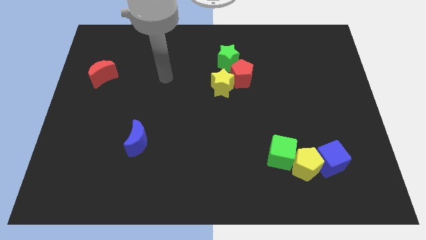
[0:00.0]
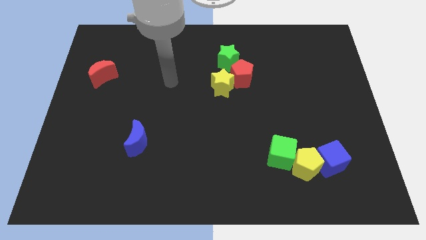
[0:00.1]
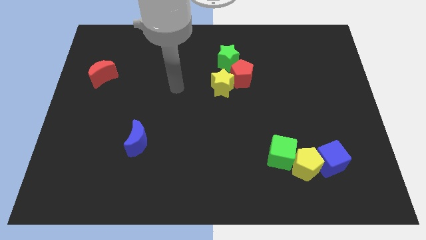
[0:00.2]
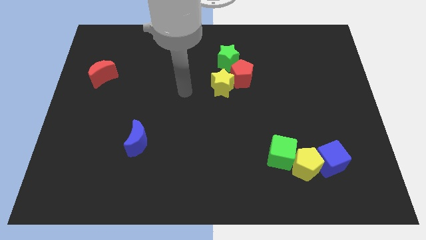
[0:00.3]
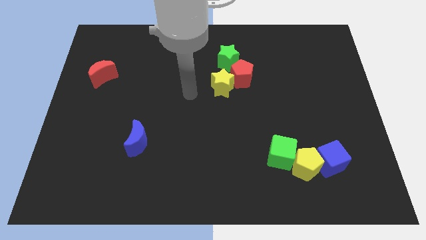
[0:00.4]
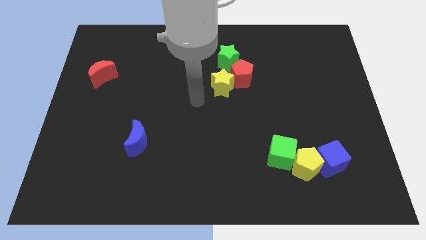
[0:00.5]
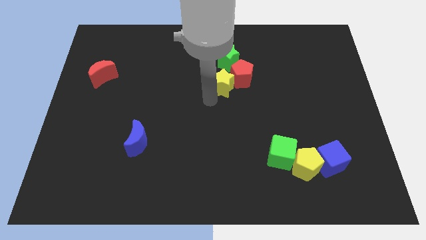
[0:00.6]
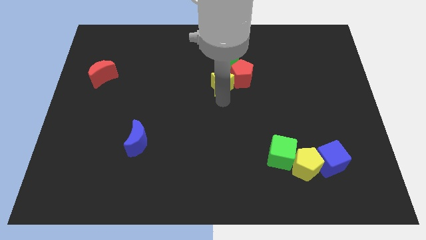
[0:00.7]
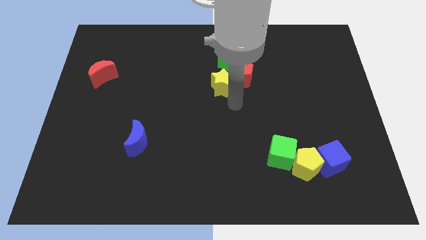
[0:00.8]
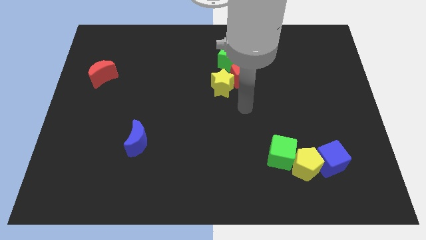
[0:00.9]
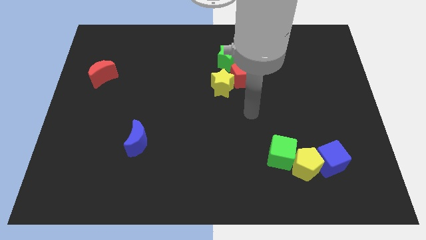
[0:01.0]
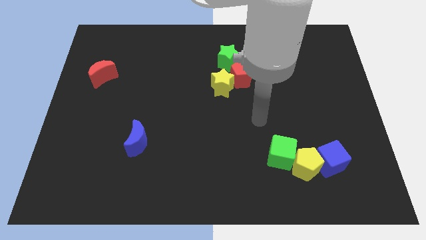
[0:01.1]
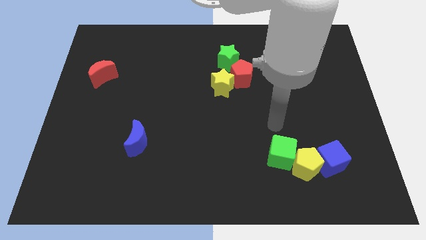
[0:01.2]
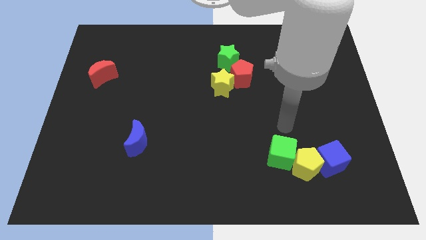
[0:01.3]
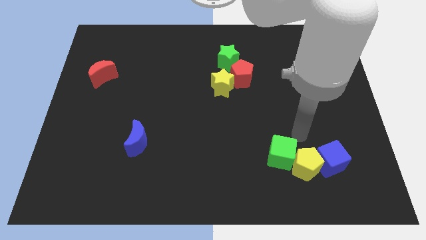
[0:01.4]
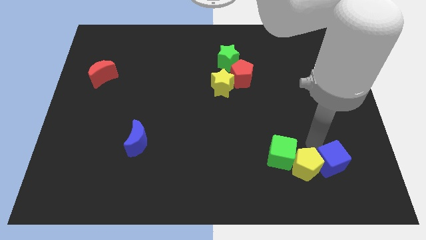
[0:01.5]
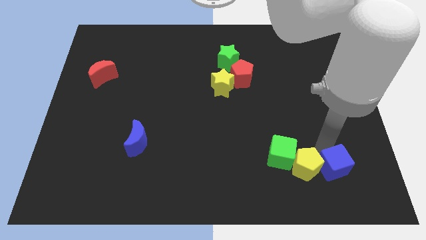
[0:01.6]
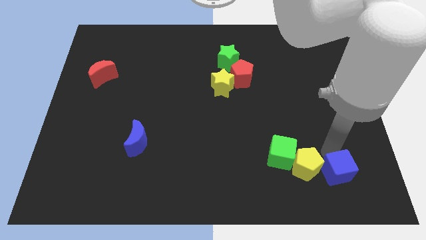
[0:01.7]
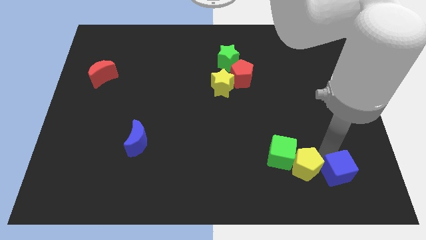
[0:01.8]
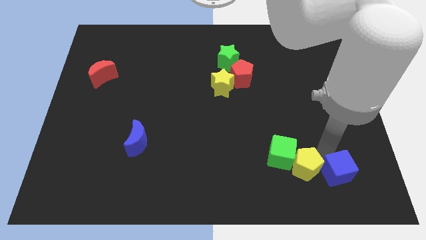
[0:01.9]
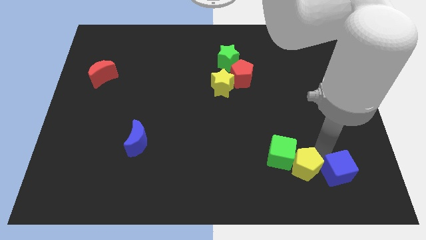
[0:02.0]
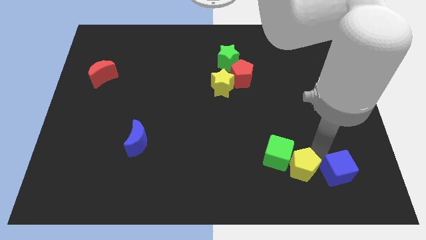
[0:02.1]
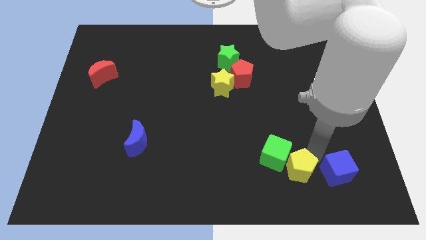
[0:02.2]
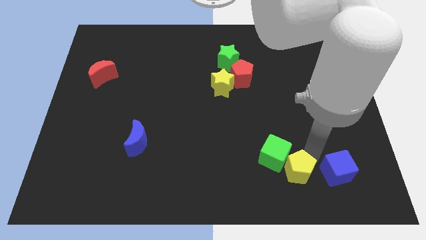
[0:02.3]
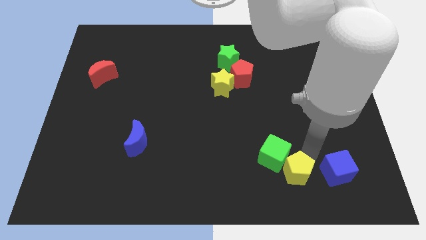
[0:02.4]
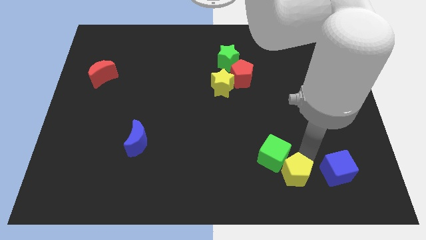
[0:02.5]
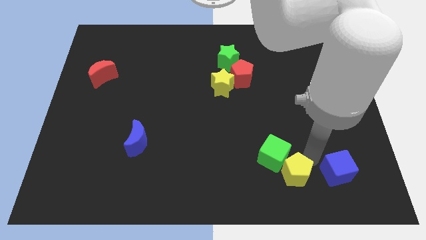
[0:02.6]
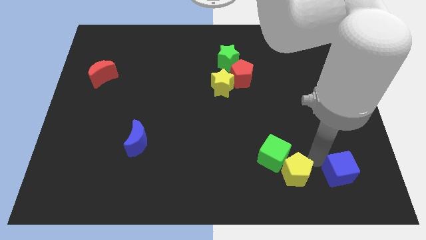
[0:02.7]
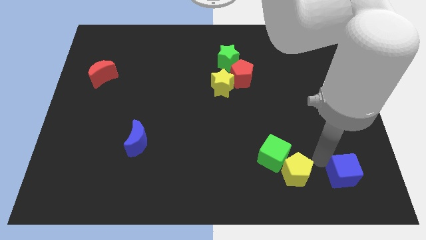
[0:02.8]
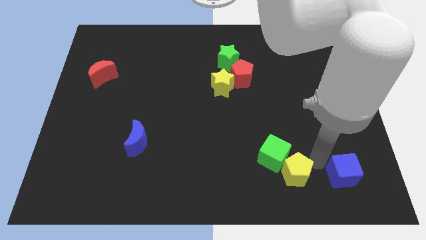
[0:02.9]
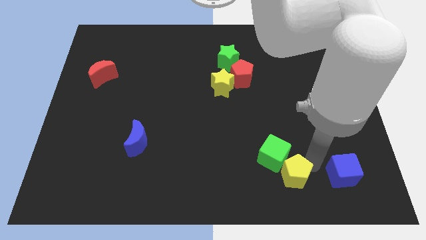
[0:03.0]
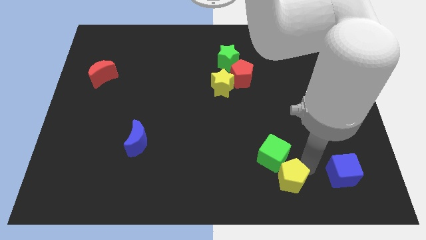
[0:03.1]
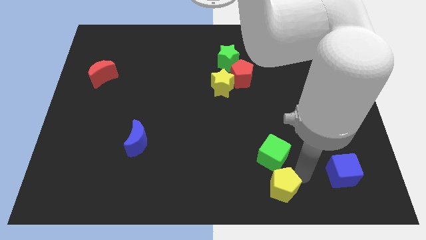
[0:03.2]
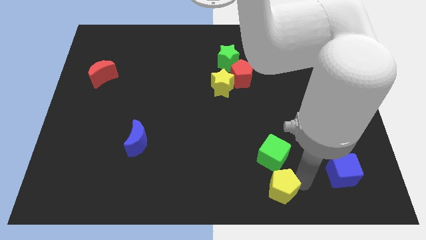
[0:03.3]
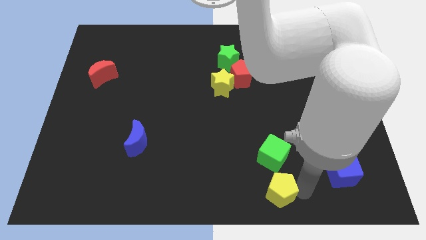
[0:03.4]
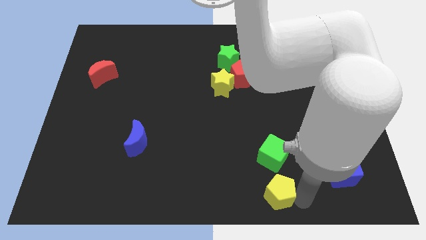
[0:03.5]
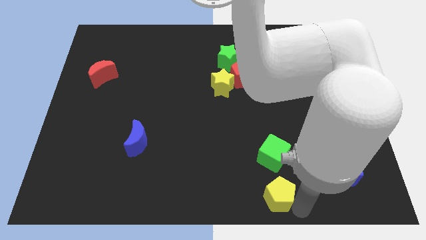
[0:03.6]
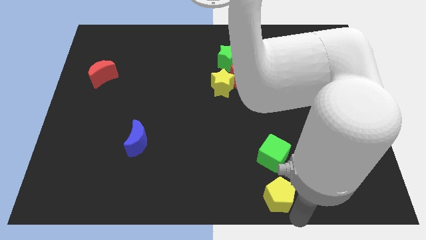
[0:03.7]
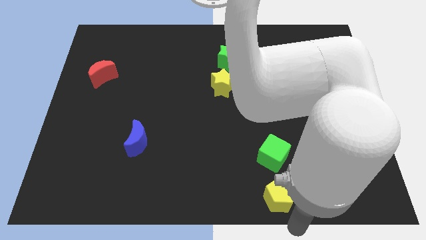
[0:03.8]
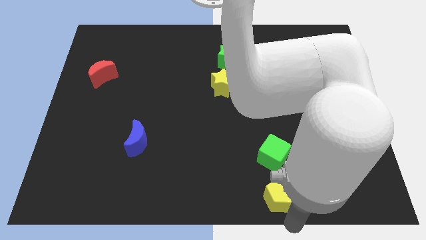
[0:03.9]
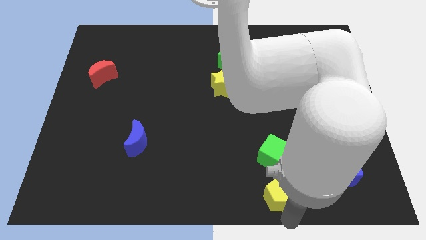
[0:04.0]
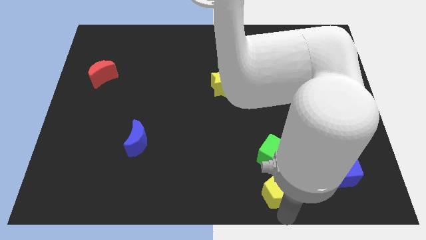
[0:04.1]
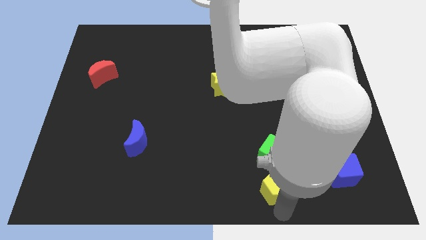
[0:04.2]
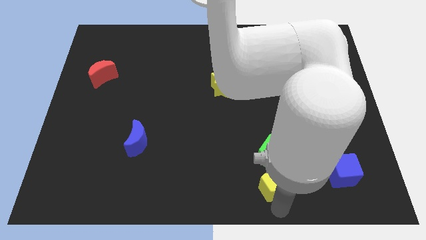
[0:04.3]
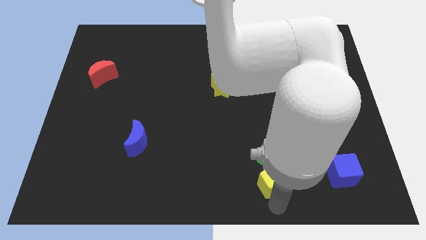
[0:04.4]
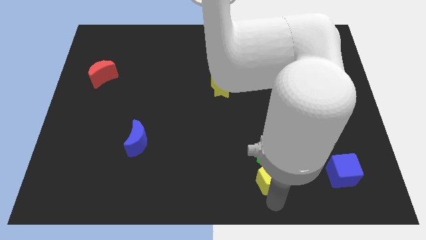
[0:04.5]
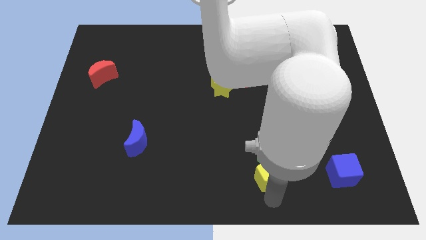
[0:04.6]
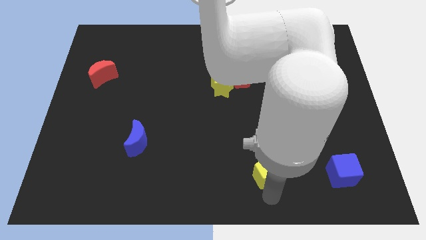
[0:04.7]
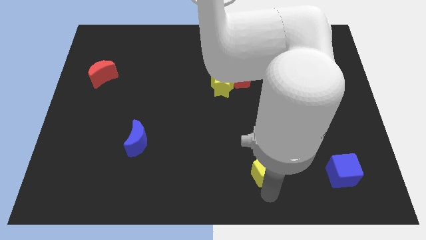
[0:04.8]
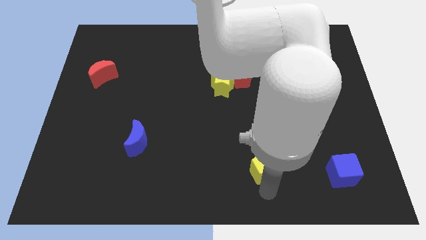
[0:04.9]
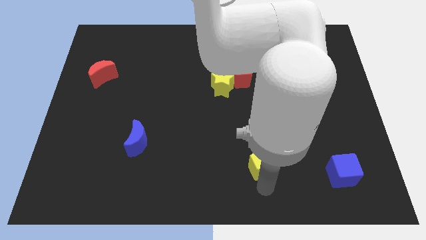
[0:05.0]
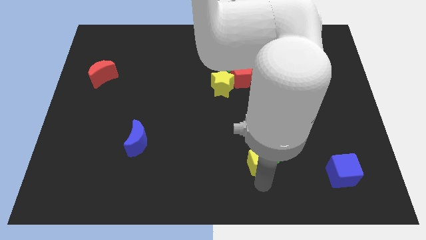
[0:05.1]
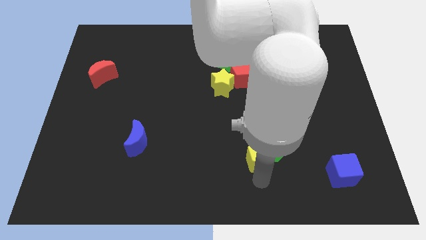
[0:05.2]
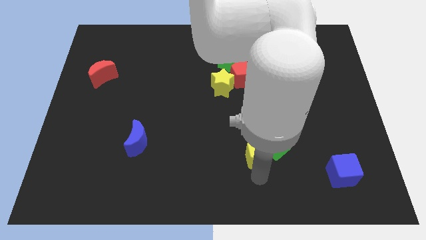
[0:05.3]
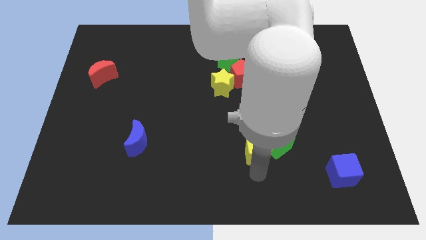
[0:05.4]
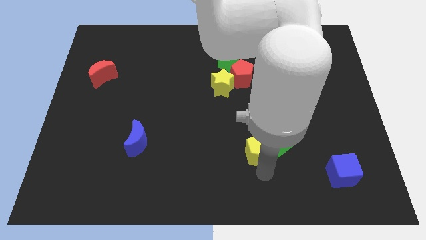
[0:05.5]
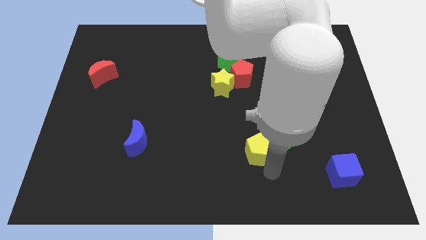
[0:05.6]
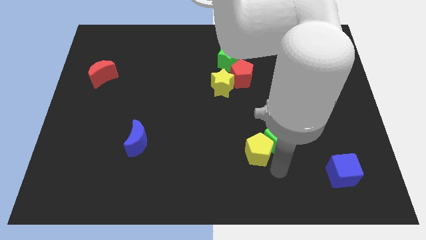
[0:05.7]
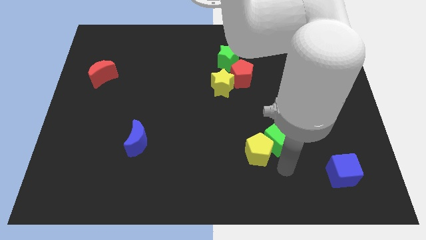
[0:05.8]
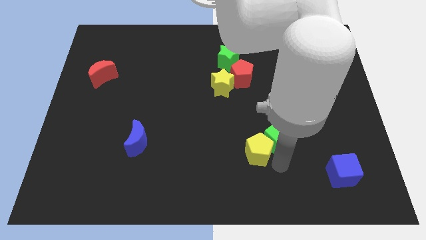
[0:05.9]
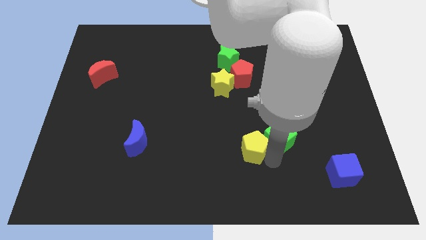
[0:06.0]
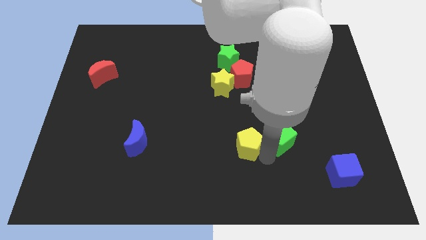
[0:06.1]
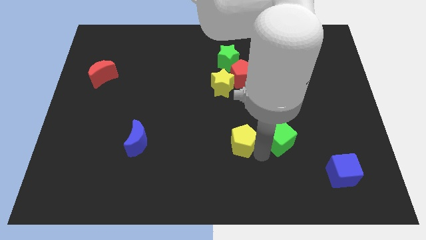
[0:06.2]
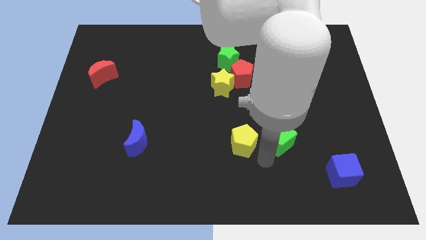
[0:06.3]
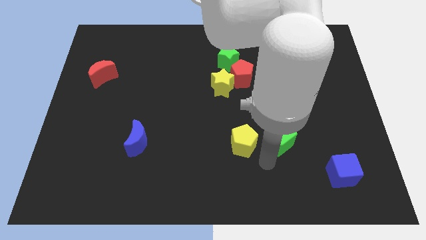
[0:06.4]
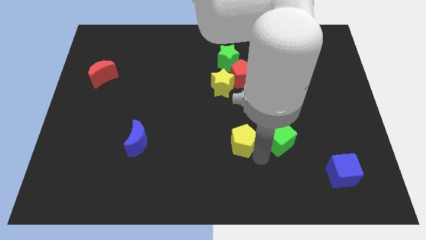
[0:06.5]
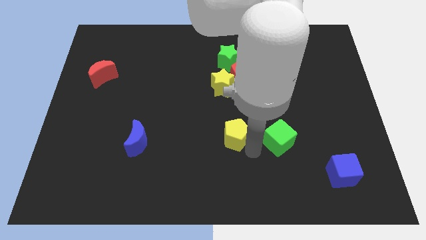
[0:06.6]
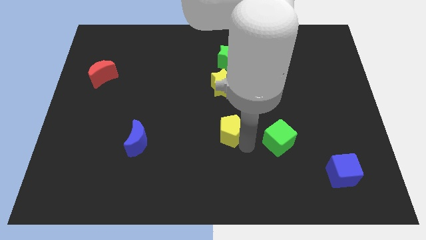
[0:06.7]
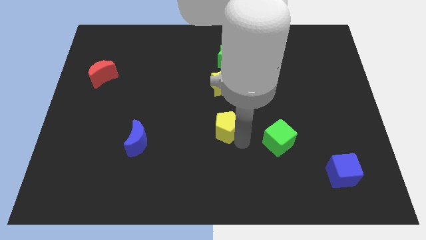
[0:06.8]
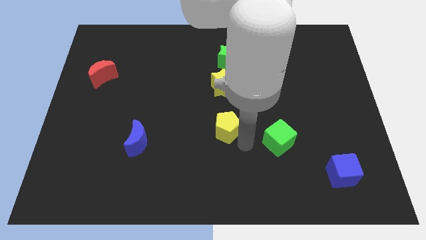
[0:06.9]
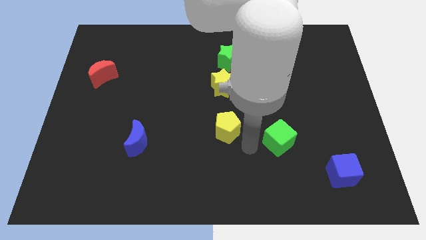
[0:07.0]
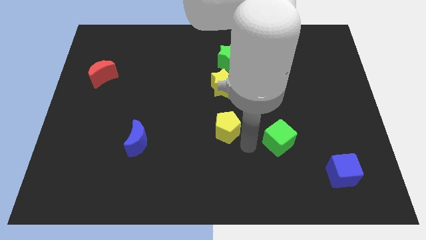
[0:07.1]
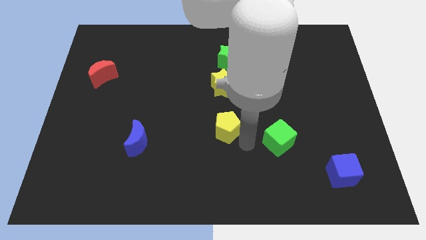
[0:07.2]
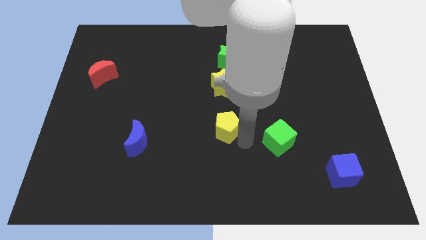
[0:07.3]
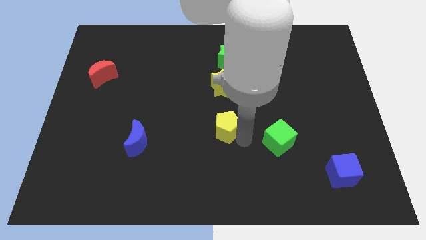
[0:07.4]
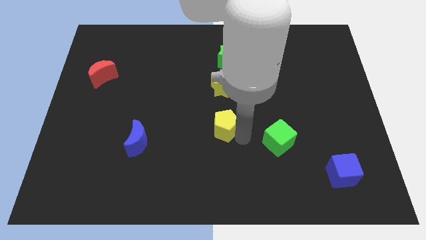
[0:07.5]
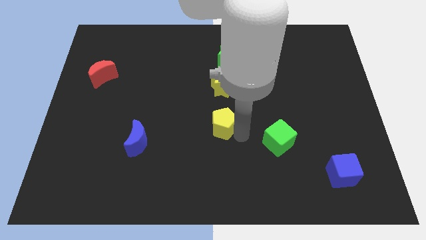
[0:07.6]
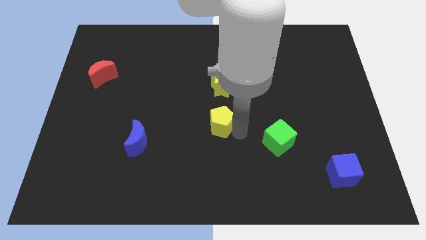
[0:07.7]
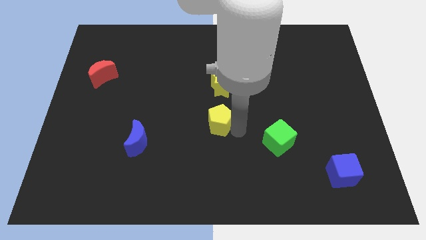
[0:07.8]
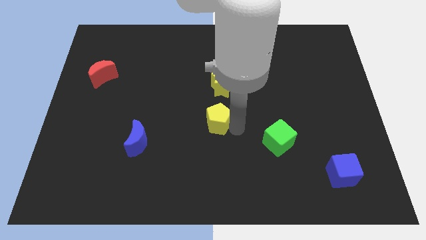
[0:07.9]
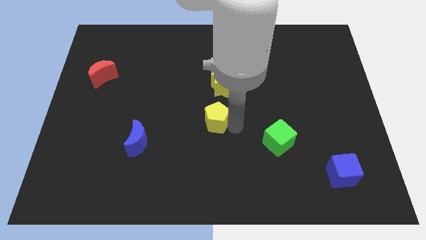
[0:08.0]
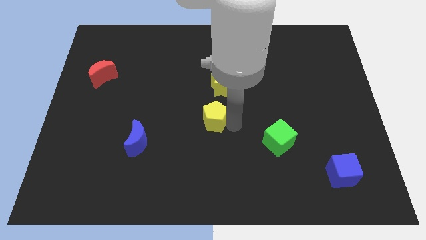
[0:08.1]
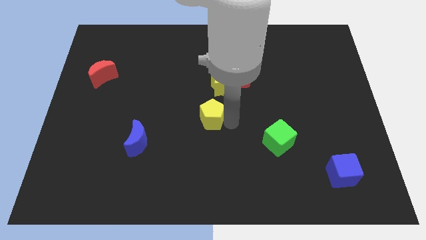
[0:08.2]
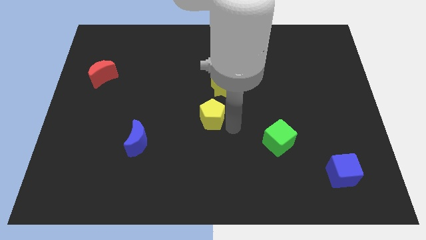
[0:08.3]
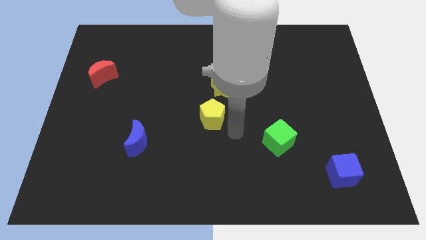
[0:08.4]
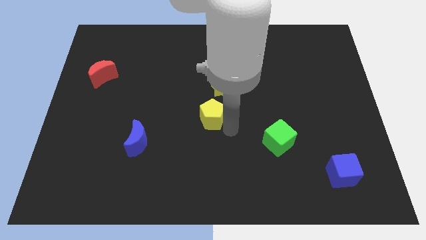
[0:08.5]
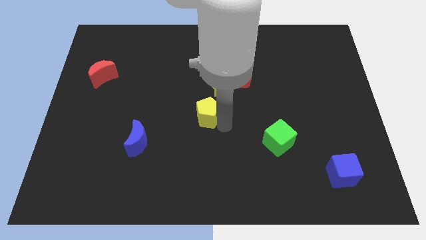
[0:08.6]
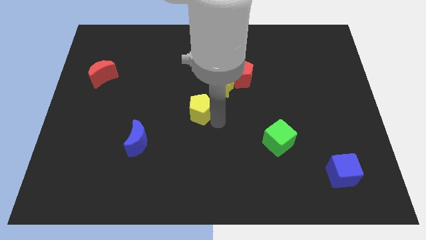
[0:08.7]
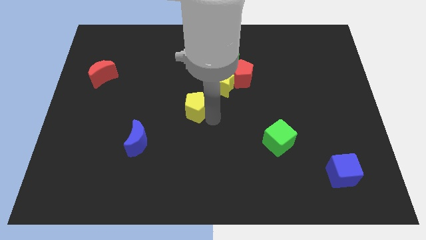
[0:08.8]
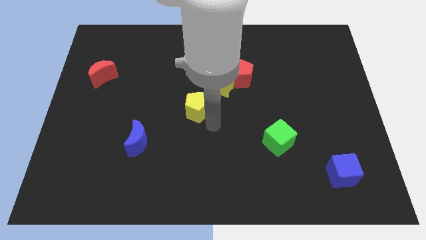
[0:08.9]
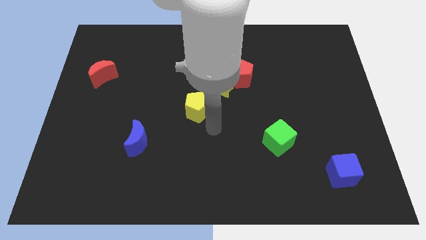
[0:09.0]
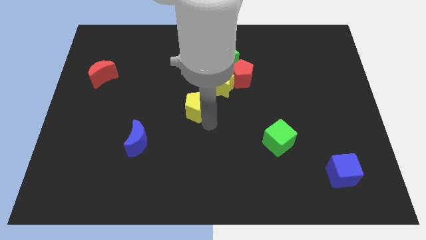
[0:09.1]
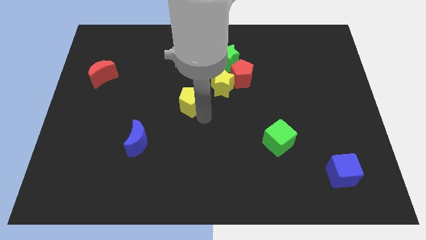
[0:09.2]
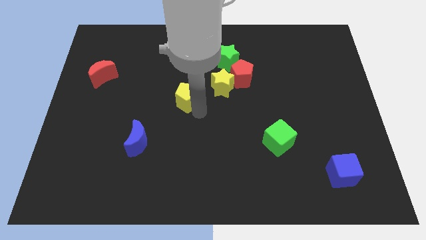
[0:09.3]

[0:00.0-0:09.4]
put the yellow pentagon to the left side of the yellow star
